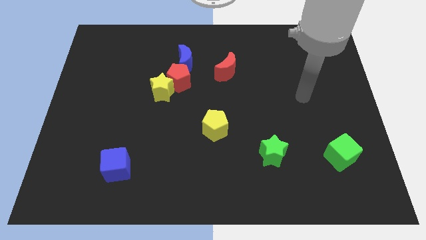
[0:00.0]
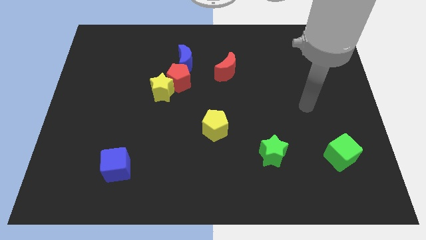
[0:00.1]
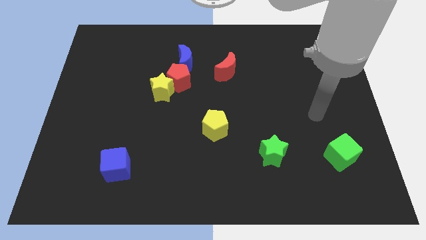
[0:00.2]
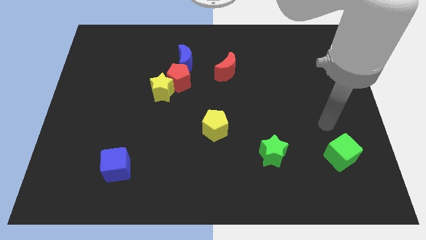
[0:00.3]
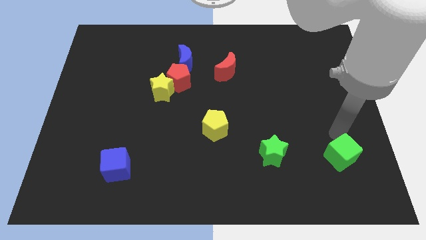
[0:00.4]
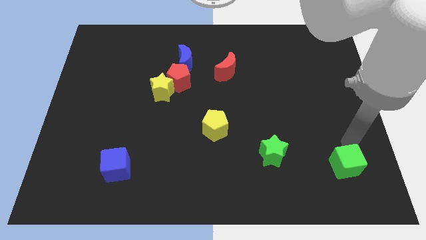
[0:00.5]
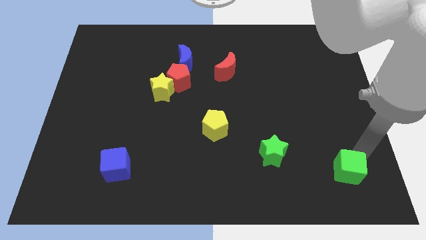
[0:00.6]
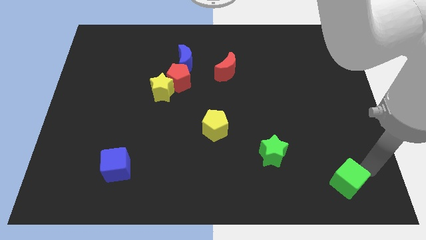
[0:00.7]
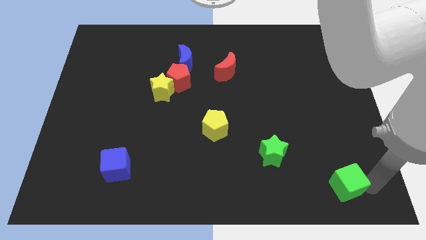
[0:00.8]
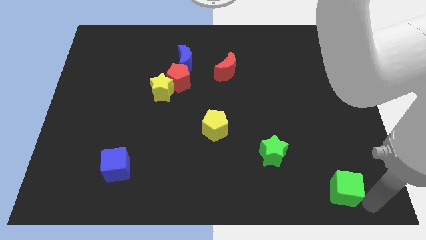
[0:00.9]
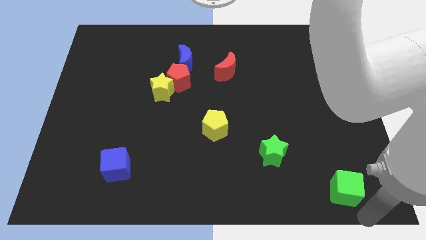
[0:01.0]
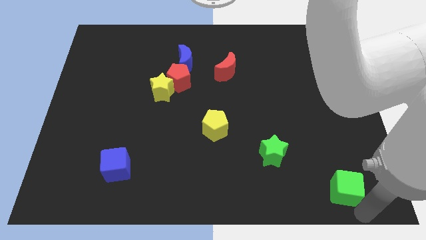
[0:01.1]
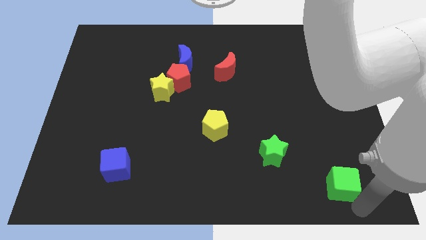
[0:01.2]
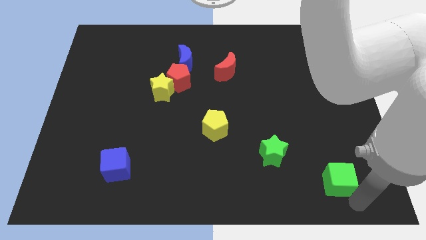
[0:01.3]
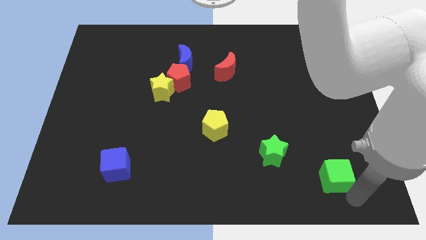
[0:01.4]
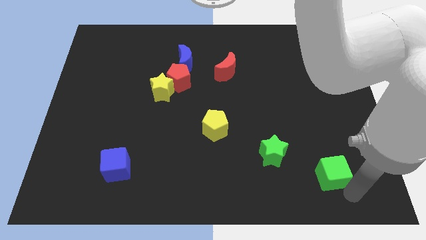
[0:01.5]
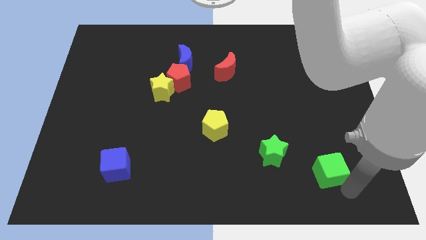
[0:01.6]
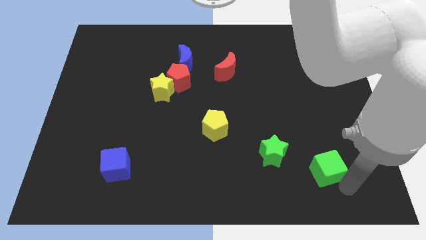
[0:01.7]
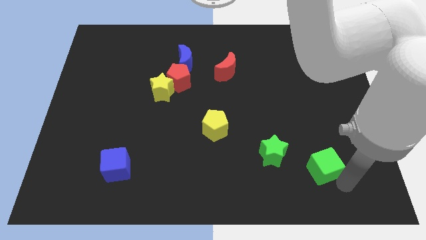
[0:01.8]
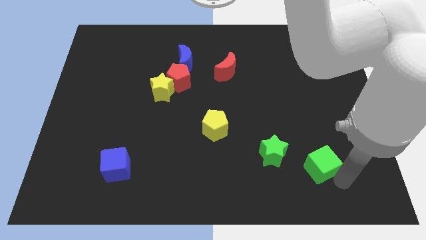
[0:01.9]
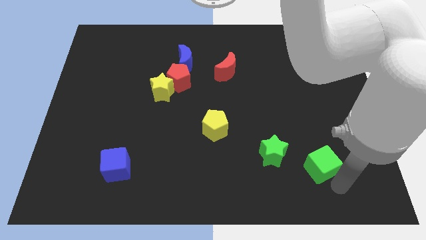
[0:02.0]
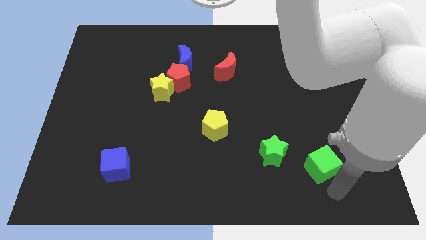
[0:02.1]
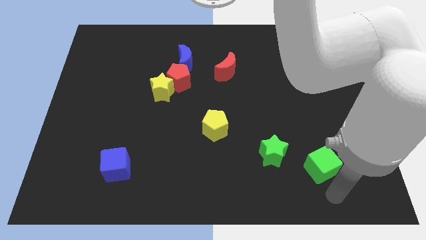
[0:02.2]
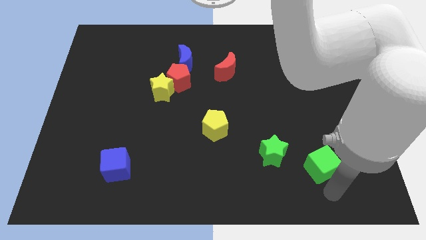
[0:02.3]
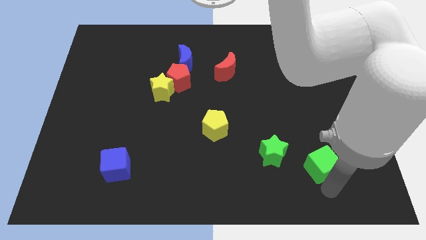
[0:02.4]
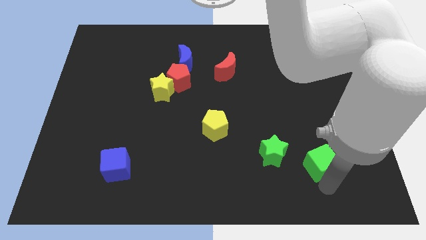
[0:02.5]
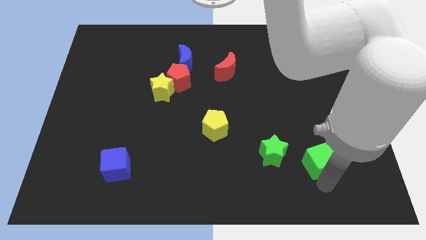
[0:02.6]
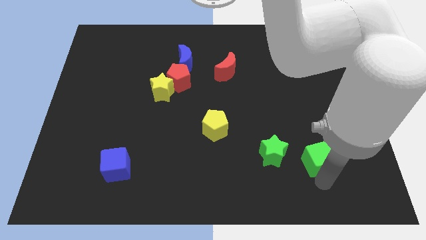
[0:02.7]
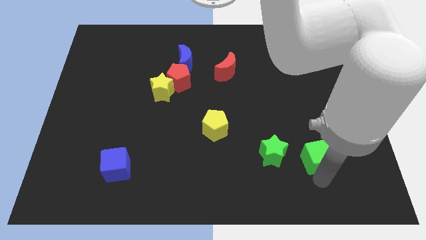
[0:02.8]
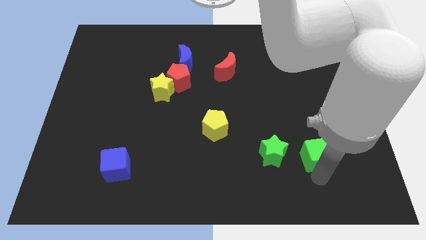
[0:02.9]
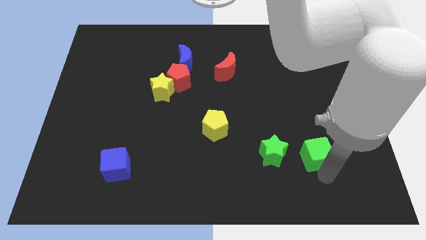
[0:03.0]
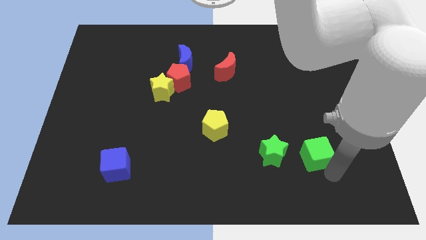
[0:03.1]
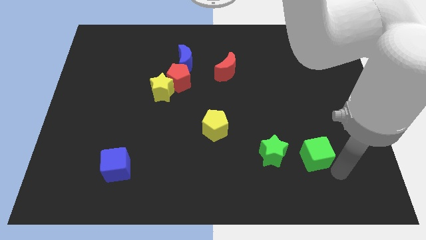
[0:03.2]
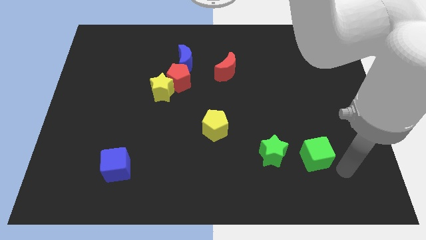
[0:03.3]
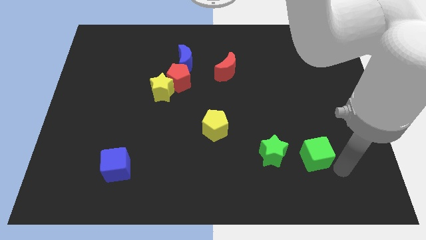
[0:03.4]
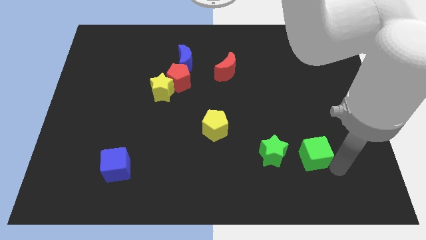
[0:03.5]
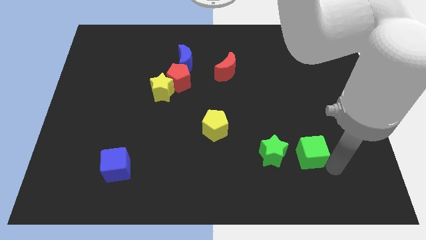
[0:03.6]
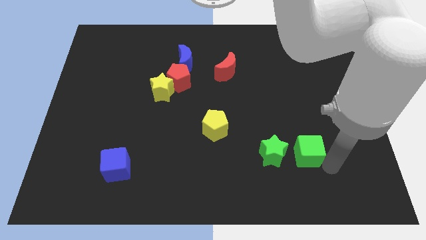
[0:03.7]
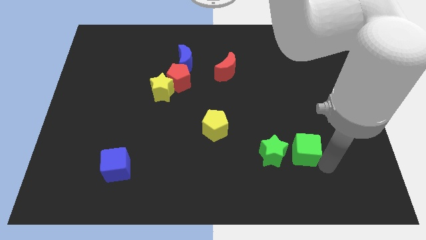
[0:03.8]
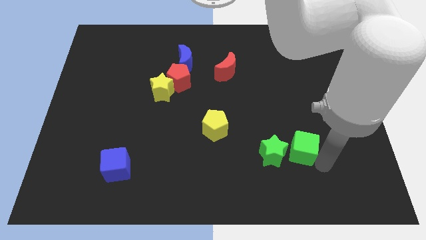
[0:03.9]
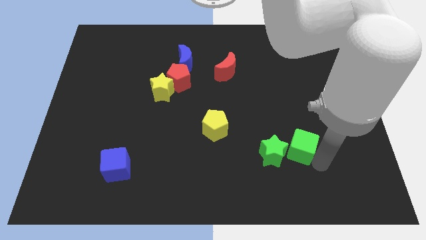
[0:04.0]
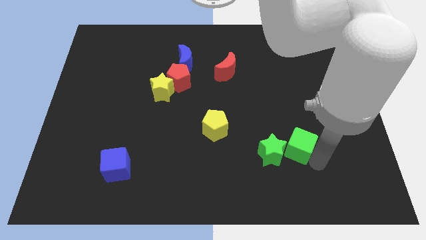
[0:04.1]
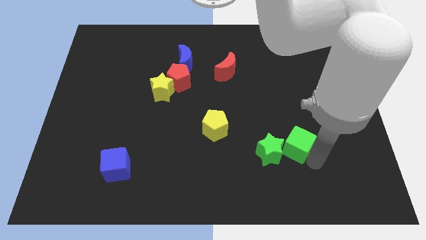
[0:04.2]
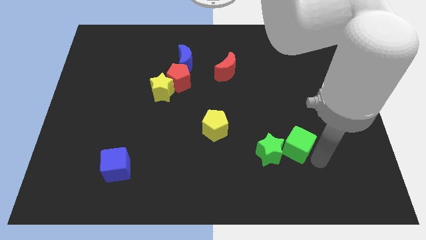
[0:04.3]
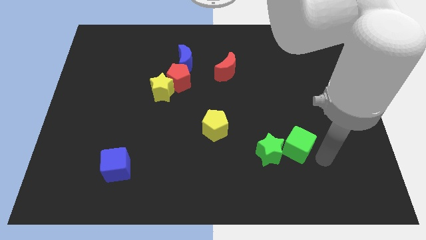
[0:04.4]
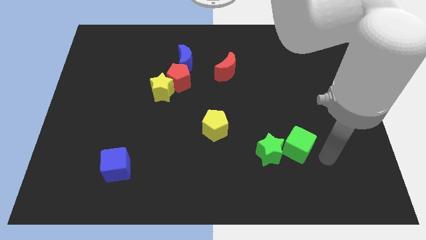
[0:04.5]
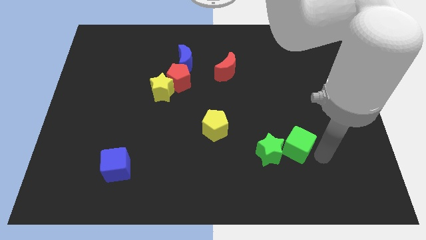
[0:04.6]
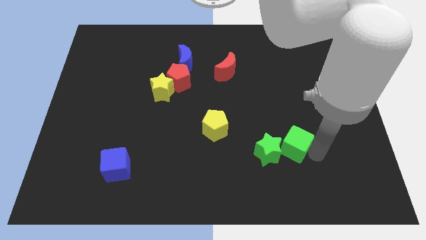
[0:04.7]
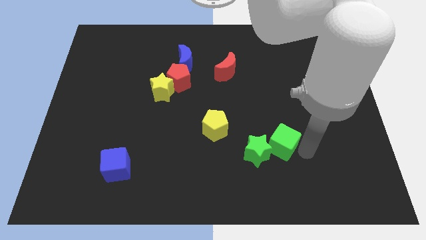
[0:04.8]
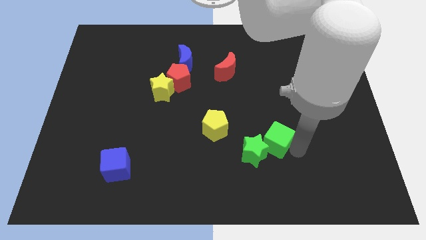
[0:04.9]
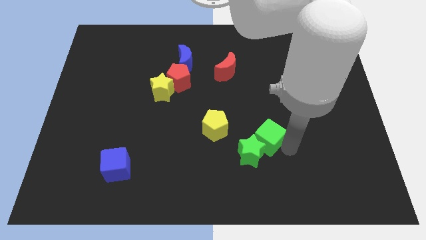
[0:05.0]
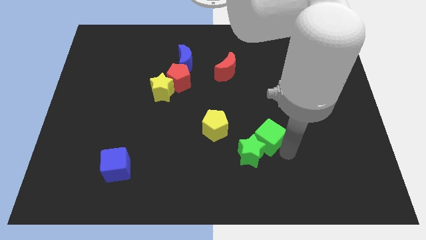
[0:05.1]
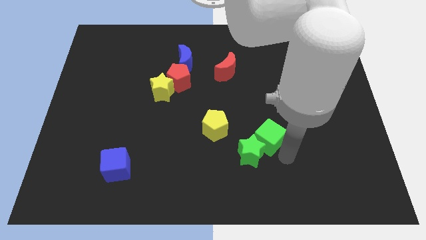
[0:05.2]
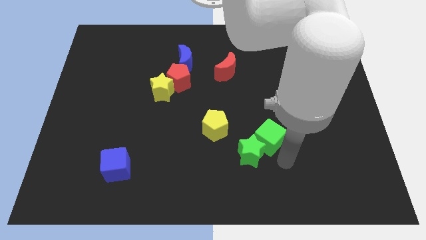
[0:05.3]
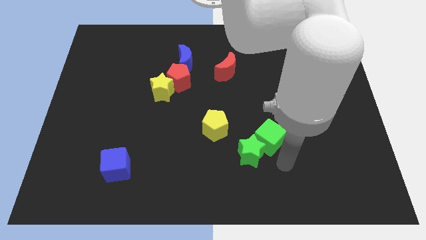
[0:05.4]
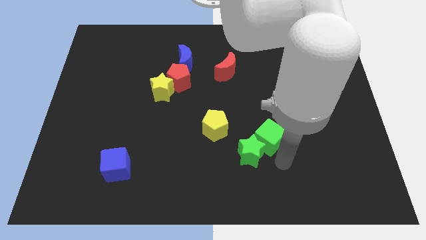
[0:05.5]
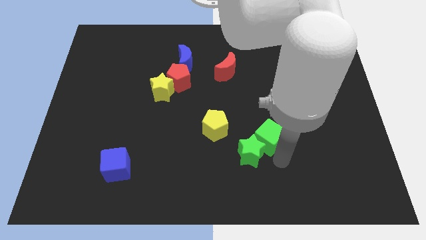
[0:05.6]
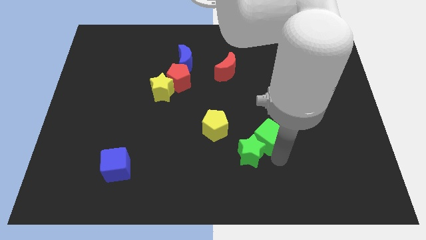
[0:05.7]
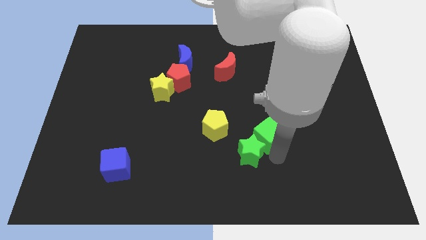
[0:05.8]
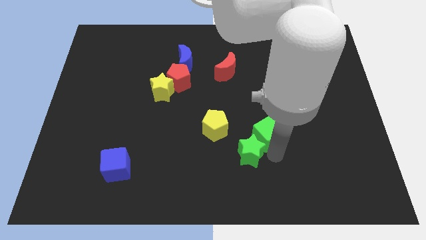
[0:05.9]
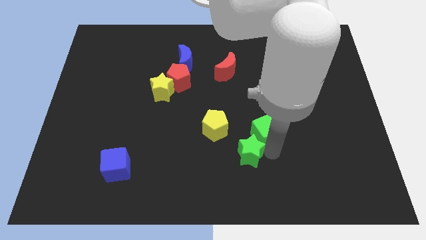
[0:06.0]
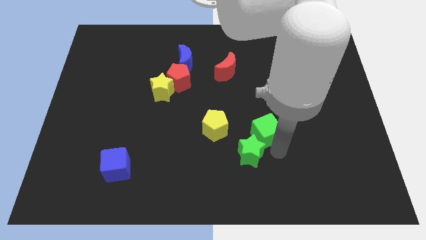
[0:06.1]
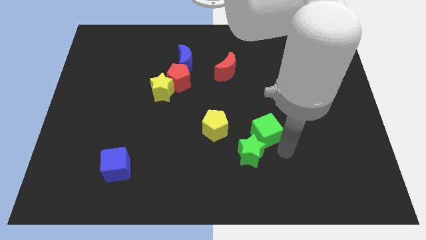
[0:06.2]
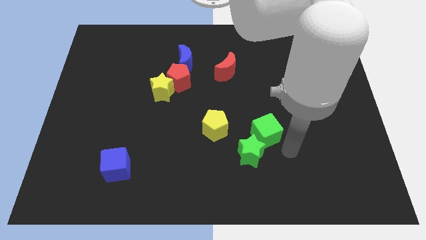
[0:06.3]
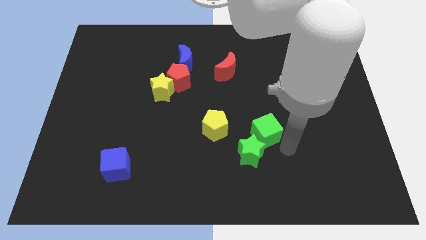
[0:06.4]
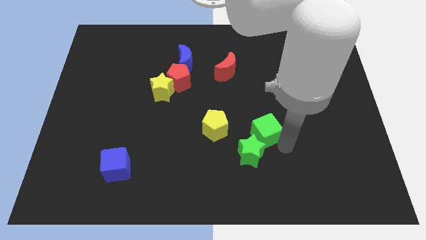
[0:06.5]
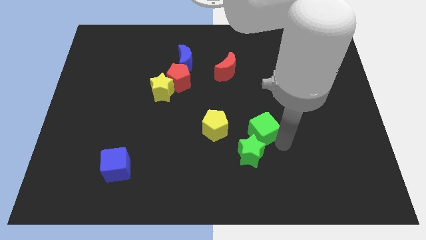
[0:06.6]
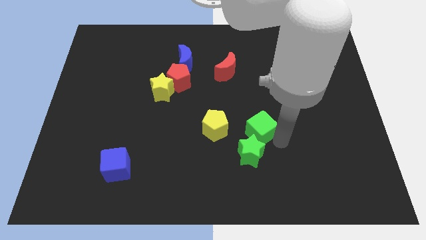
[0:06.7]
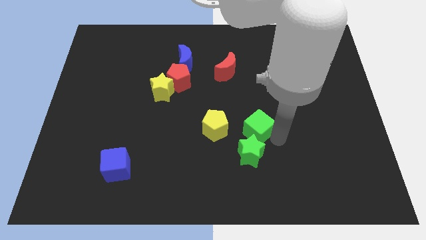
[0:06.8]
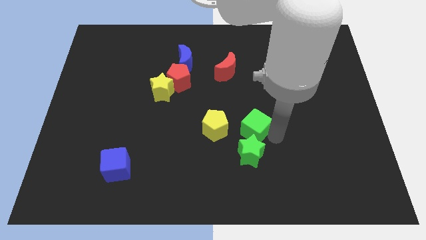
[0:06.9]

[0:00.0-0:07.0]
push the green cube to the middle of the board
